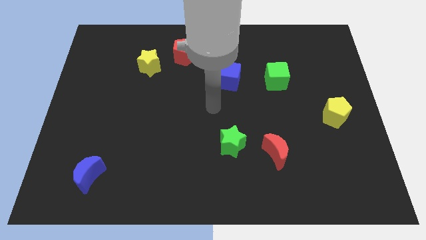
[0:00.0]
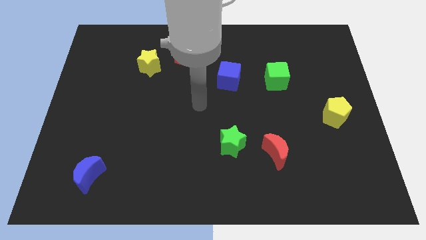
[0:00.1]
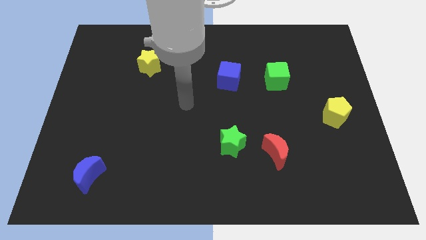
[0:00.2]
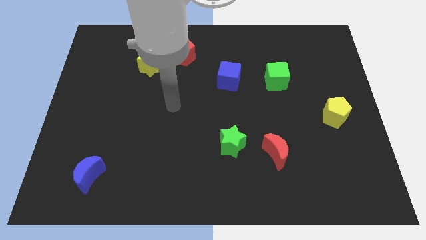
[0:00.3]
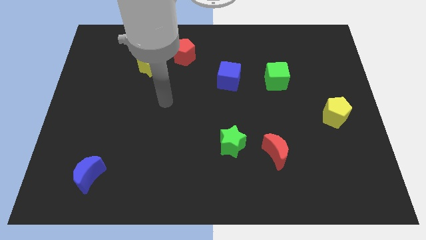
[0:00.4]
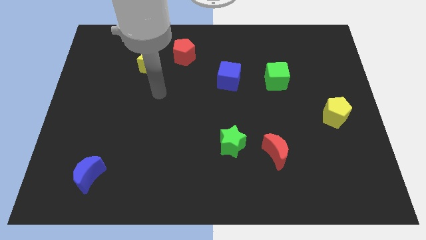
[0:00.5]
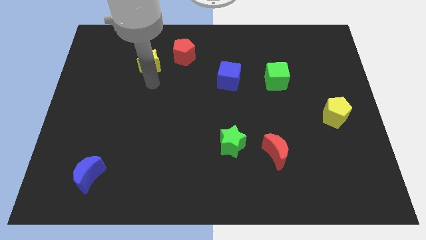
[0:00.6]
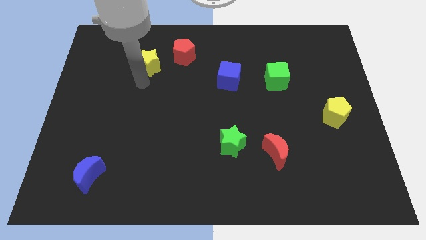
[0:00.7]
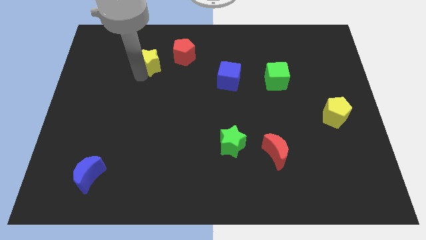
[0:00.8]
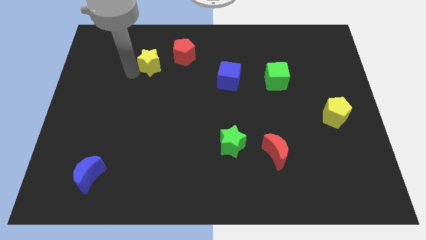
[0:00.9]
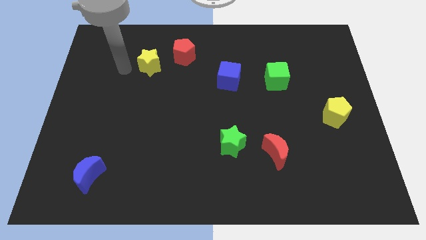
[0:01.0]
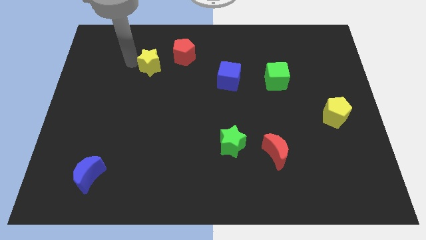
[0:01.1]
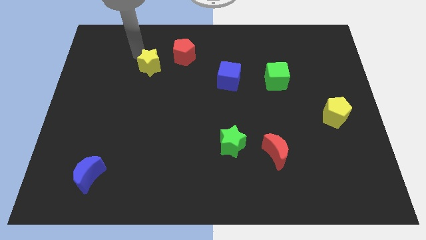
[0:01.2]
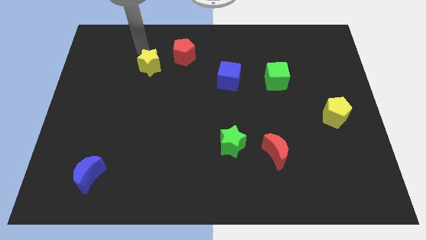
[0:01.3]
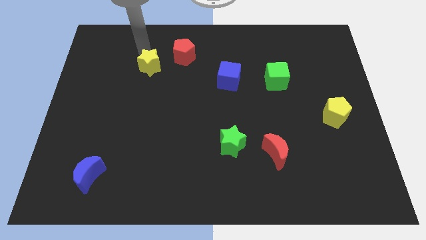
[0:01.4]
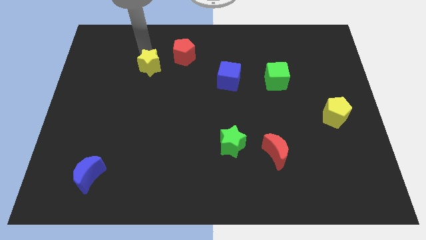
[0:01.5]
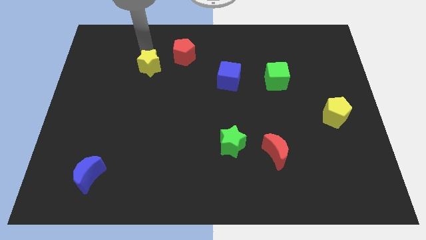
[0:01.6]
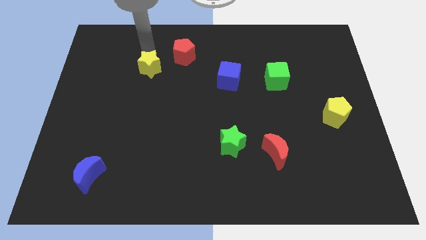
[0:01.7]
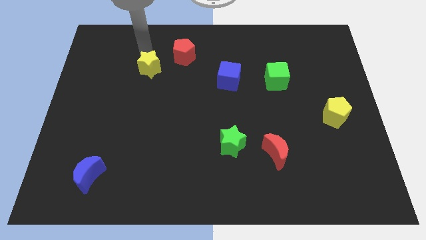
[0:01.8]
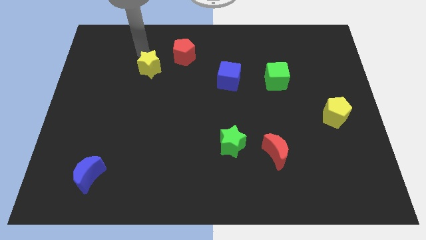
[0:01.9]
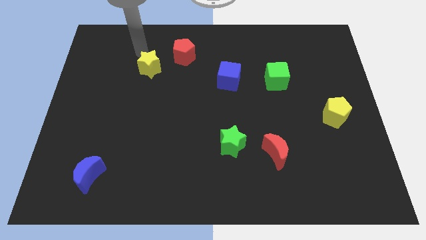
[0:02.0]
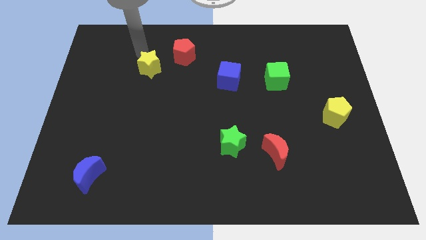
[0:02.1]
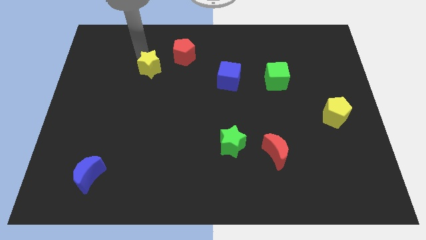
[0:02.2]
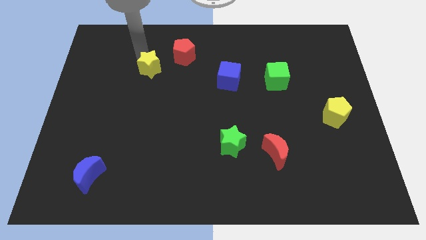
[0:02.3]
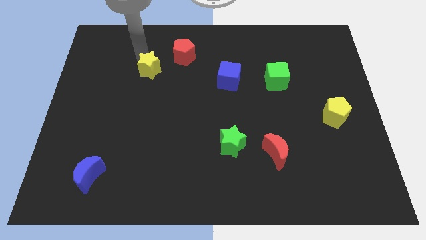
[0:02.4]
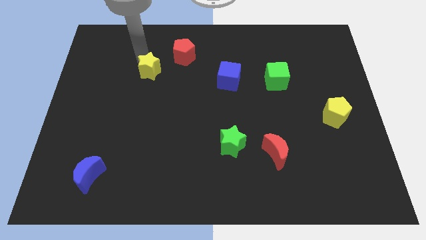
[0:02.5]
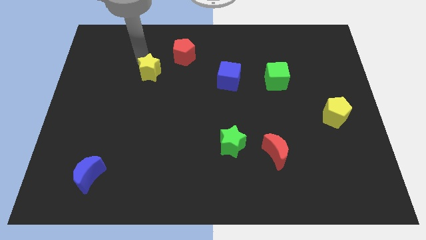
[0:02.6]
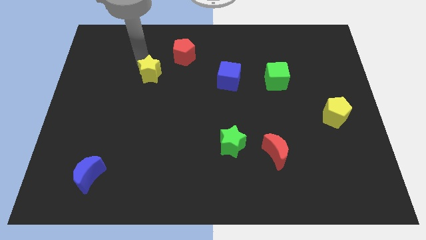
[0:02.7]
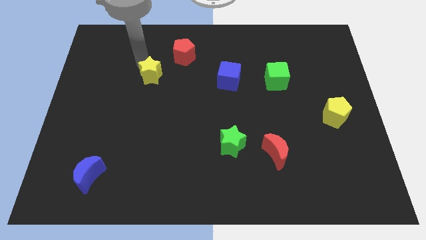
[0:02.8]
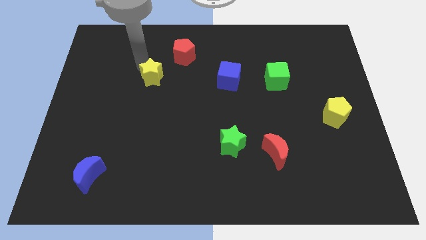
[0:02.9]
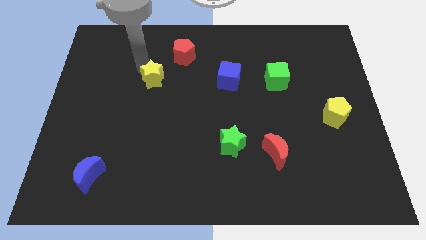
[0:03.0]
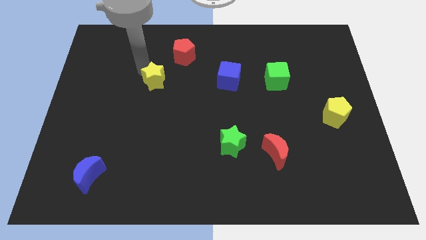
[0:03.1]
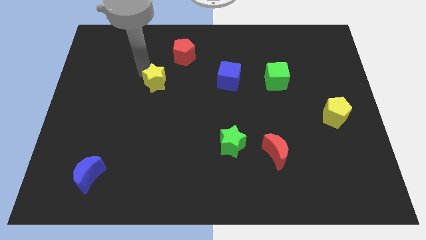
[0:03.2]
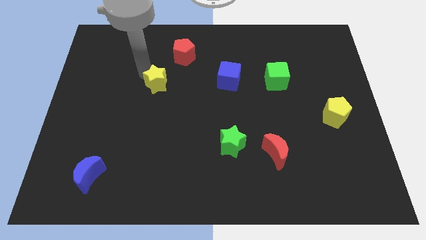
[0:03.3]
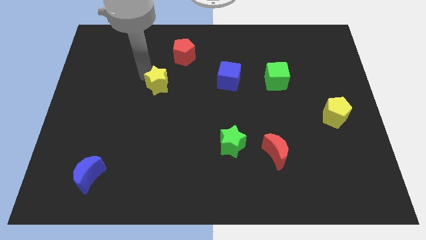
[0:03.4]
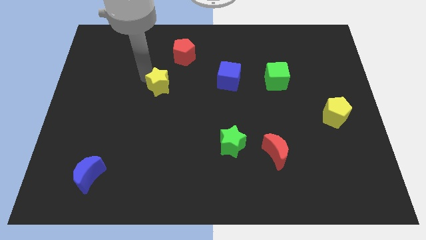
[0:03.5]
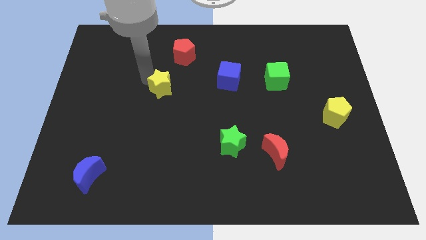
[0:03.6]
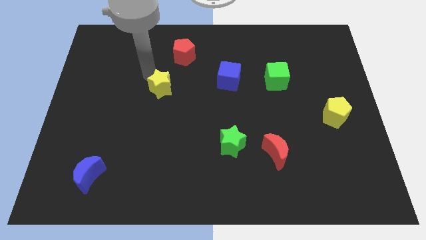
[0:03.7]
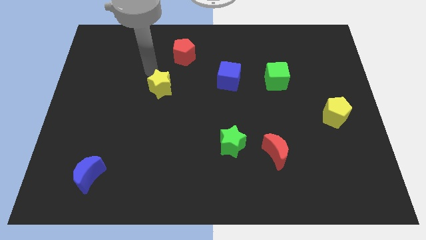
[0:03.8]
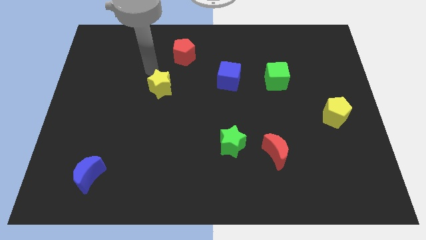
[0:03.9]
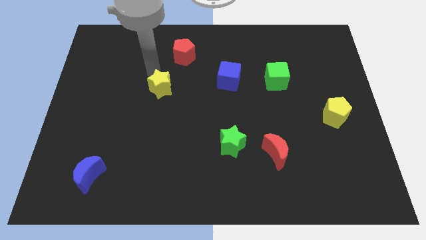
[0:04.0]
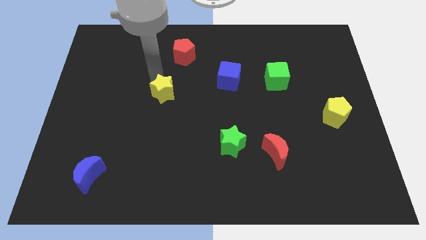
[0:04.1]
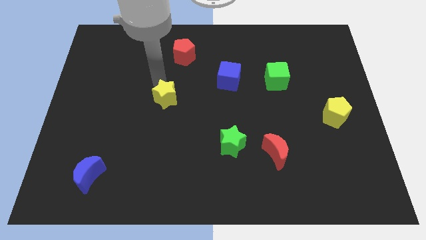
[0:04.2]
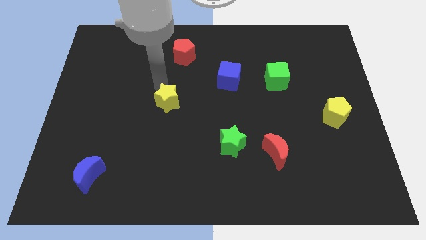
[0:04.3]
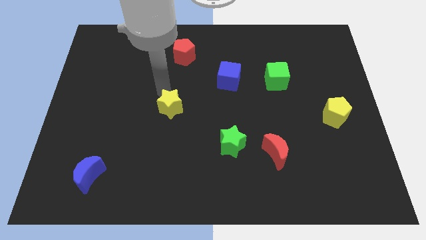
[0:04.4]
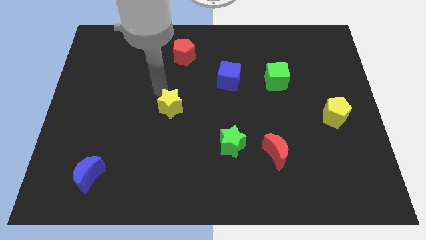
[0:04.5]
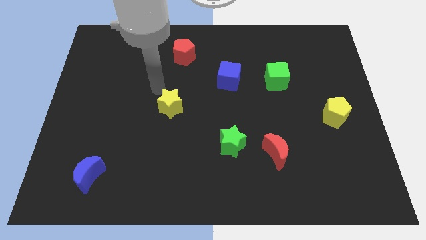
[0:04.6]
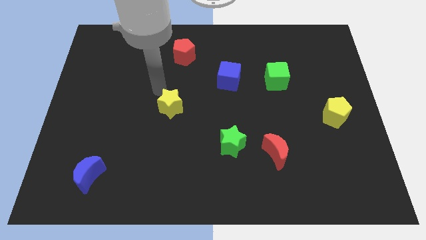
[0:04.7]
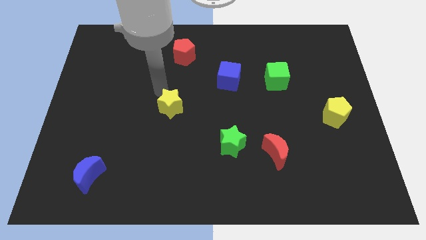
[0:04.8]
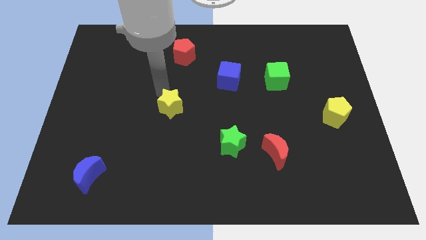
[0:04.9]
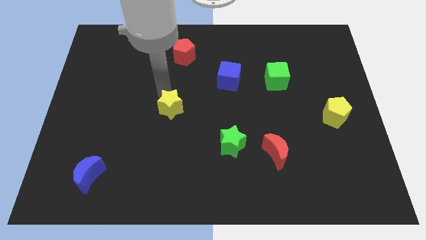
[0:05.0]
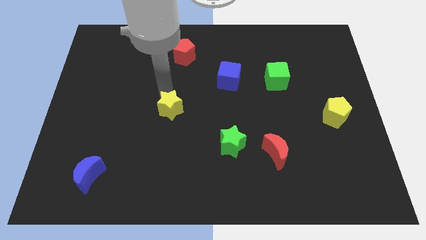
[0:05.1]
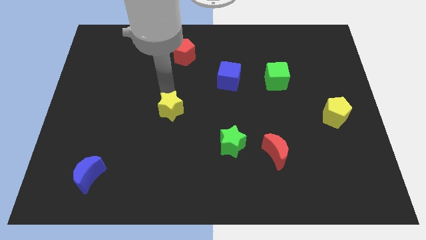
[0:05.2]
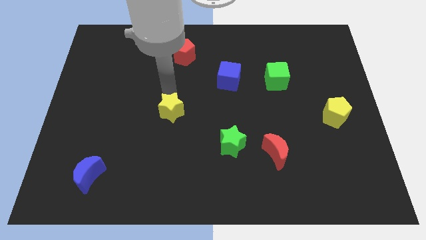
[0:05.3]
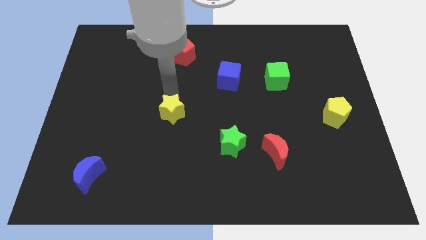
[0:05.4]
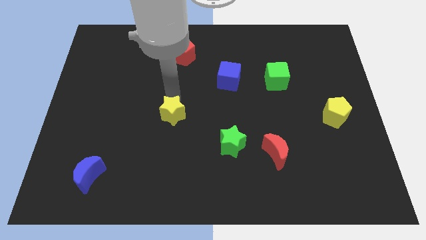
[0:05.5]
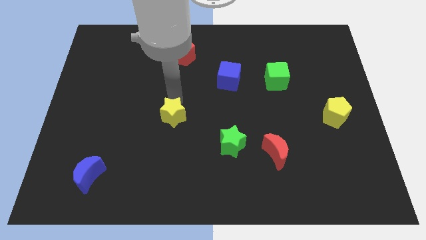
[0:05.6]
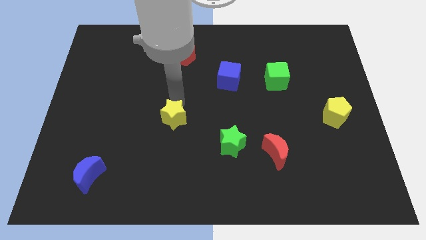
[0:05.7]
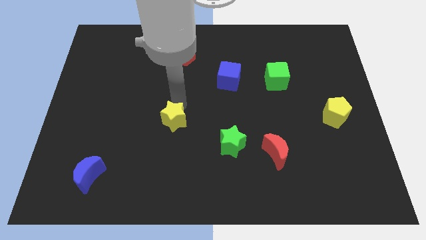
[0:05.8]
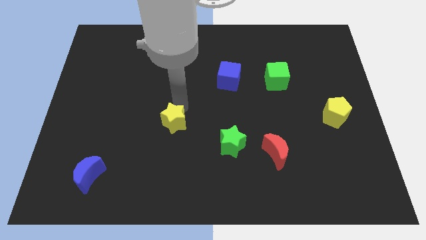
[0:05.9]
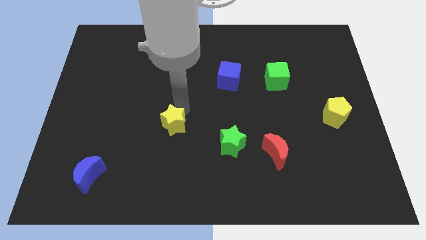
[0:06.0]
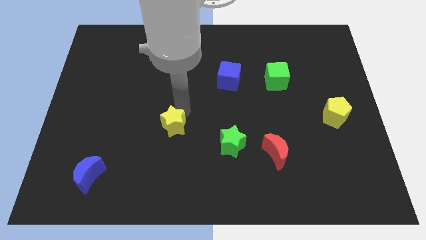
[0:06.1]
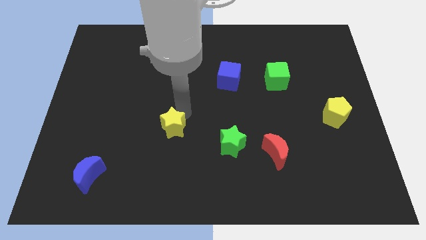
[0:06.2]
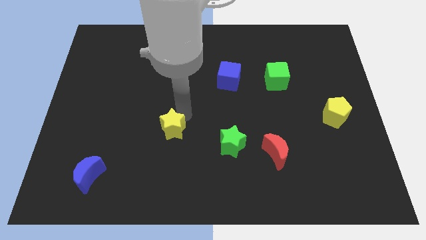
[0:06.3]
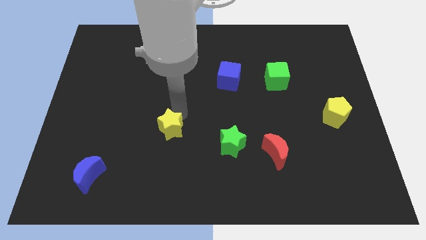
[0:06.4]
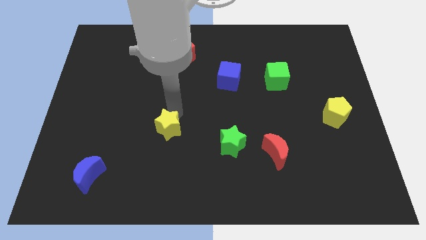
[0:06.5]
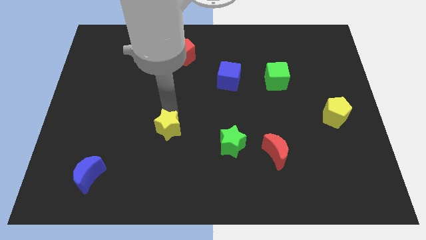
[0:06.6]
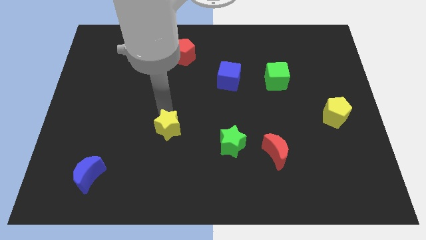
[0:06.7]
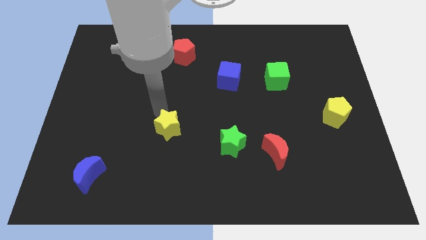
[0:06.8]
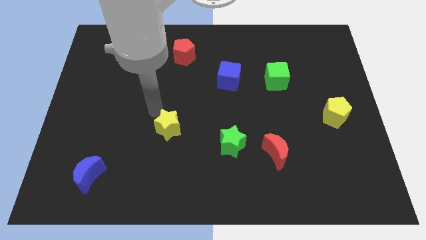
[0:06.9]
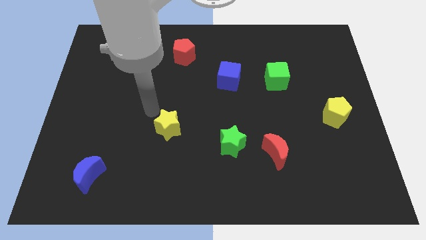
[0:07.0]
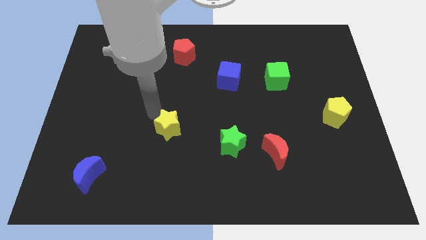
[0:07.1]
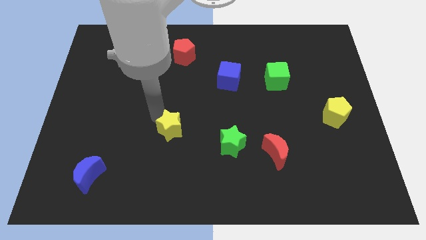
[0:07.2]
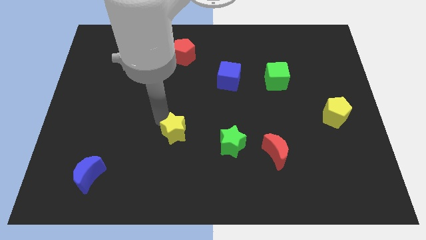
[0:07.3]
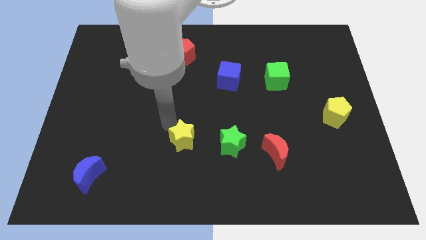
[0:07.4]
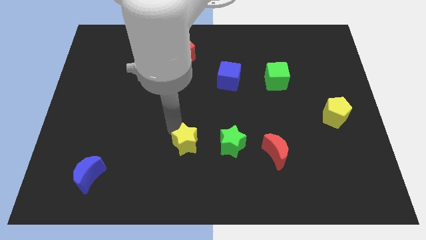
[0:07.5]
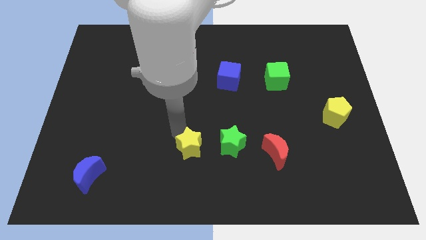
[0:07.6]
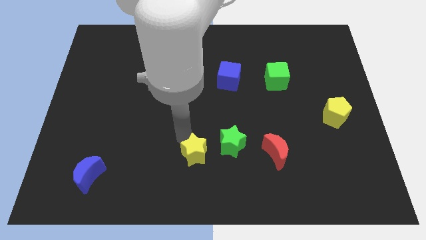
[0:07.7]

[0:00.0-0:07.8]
move the yellow star to the bottom left of the green star

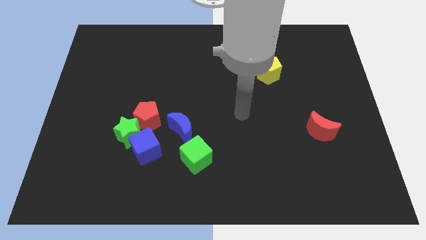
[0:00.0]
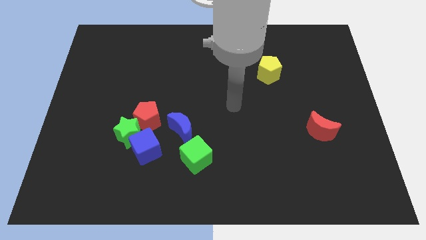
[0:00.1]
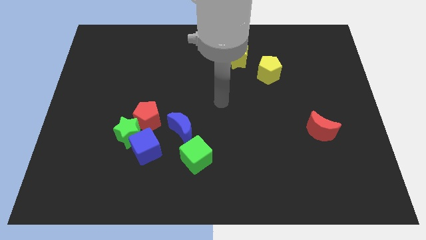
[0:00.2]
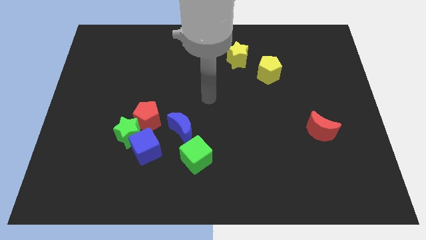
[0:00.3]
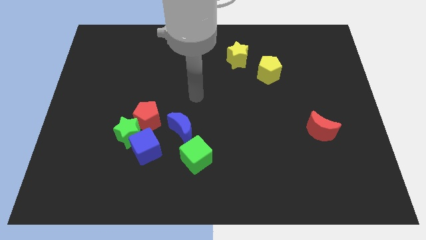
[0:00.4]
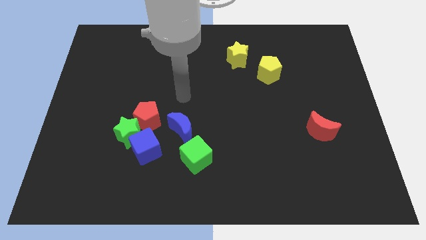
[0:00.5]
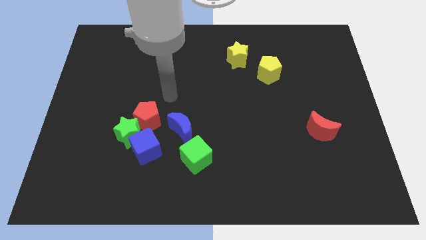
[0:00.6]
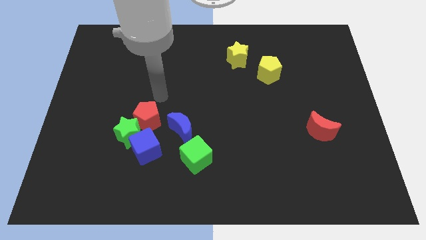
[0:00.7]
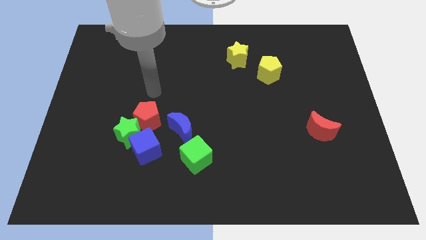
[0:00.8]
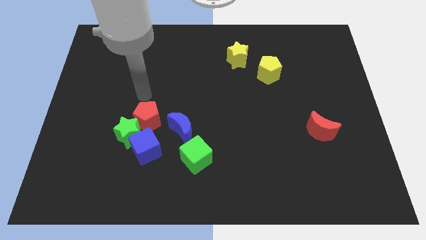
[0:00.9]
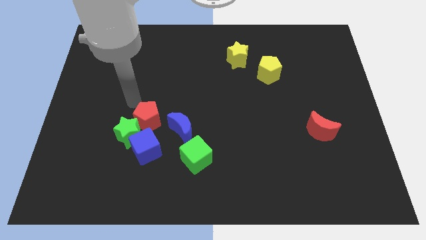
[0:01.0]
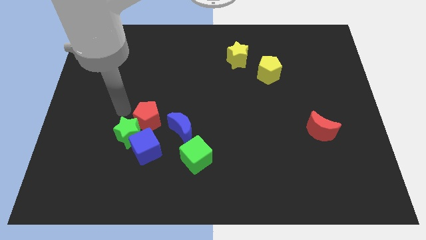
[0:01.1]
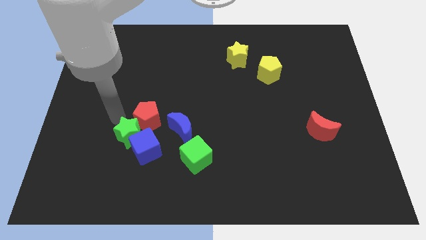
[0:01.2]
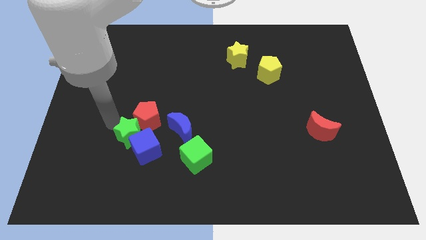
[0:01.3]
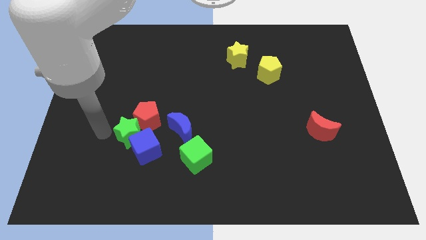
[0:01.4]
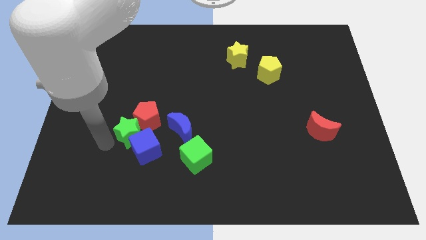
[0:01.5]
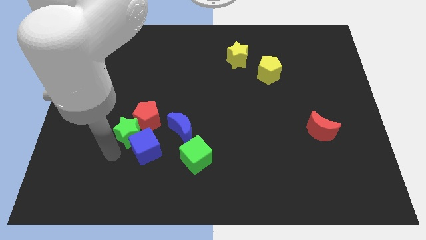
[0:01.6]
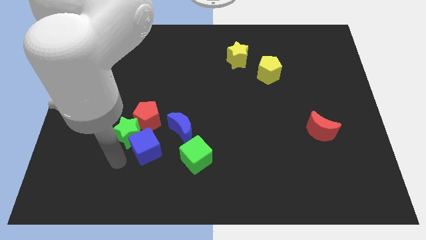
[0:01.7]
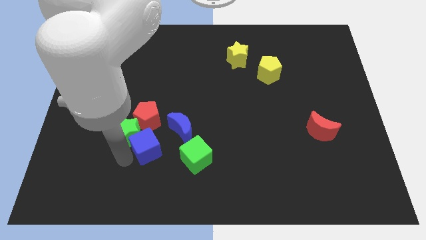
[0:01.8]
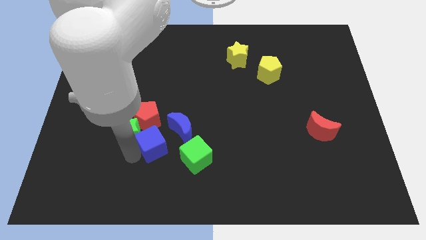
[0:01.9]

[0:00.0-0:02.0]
move the blue cube diagonally up and to the left of the green cube
